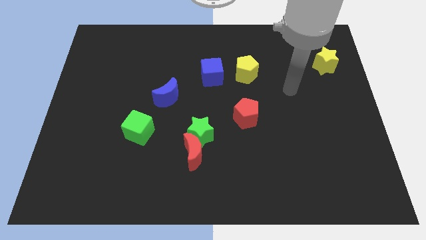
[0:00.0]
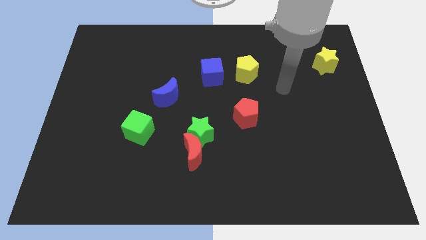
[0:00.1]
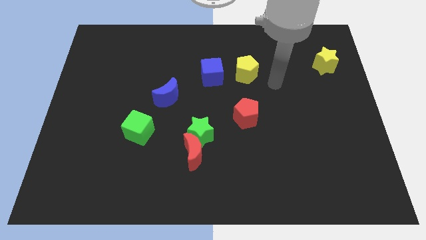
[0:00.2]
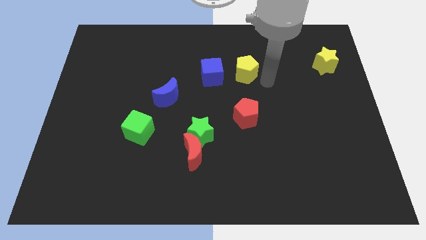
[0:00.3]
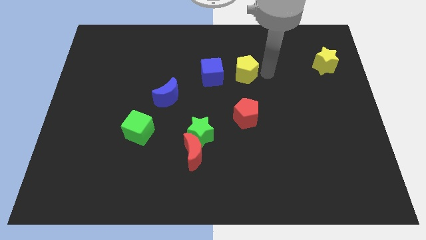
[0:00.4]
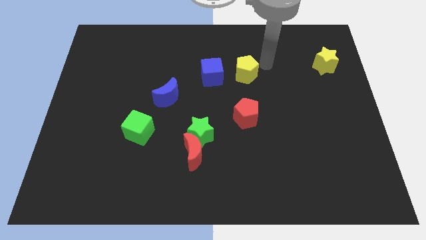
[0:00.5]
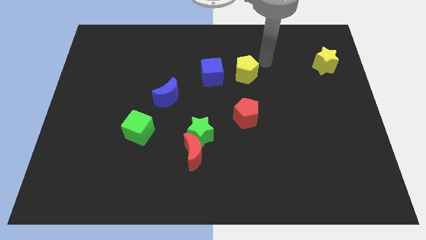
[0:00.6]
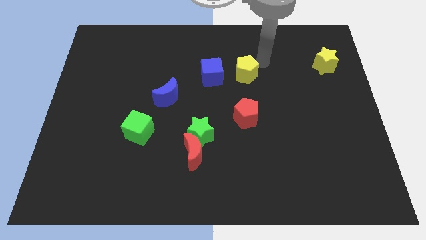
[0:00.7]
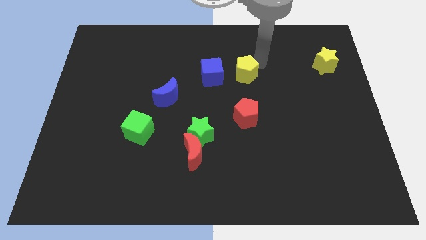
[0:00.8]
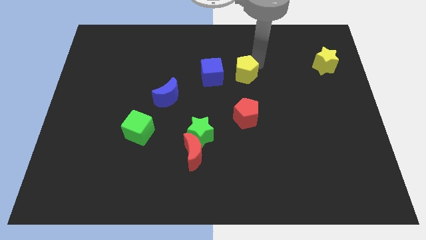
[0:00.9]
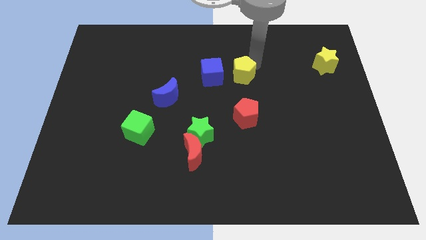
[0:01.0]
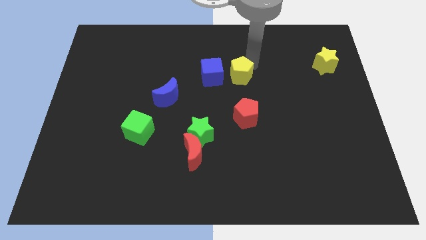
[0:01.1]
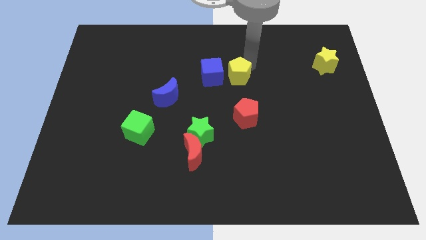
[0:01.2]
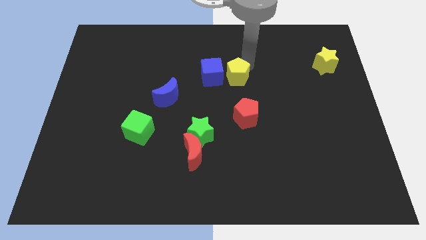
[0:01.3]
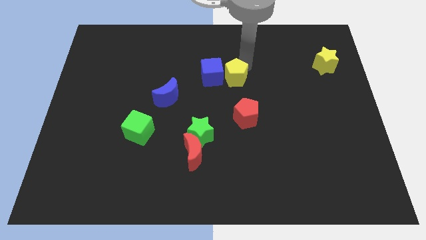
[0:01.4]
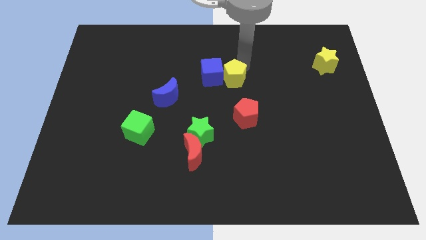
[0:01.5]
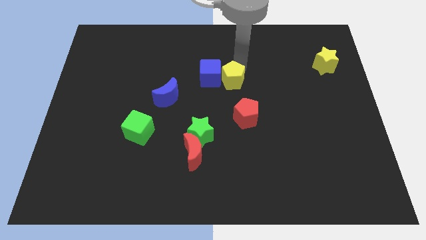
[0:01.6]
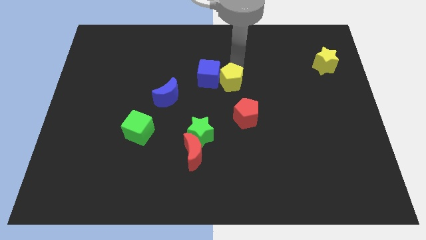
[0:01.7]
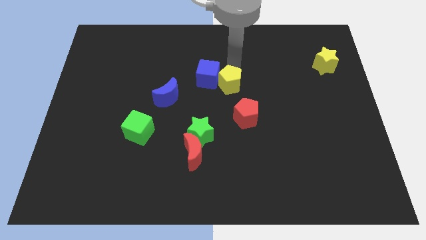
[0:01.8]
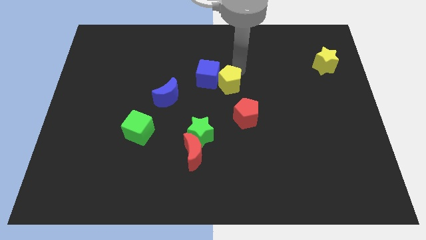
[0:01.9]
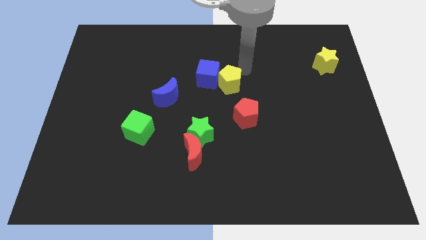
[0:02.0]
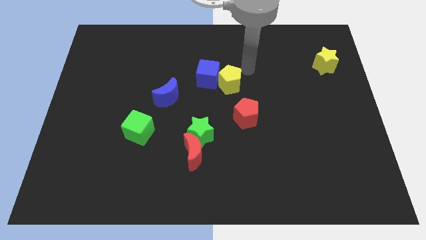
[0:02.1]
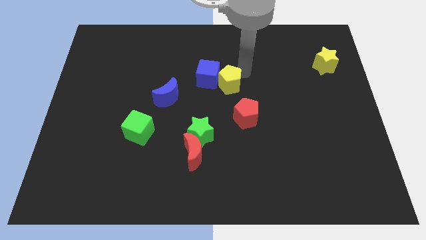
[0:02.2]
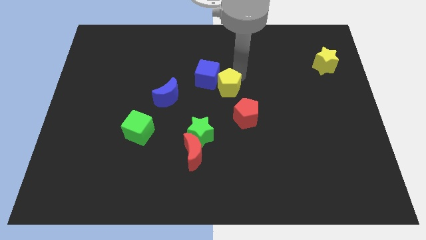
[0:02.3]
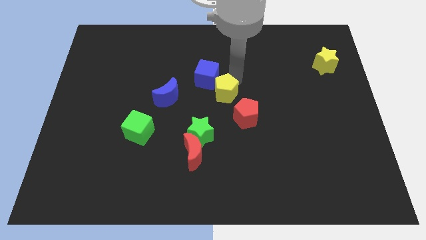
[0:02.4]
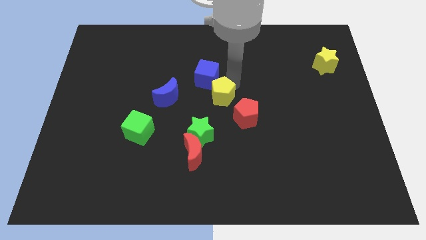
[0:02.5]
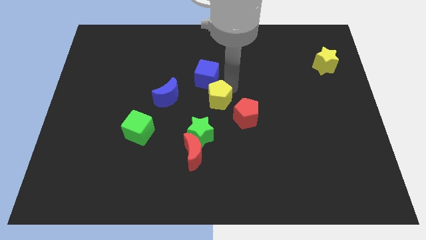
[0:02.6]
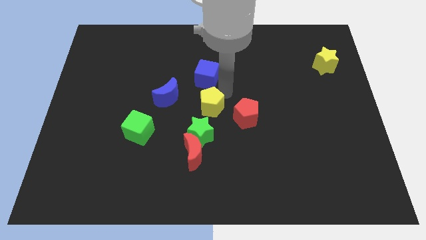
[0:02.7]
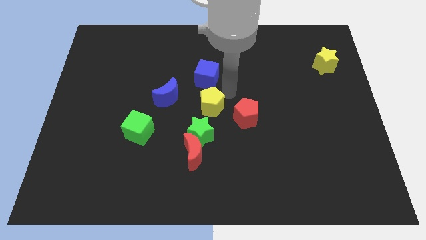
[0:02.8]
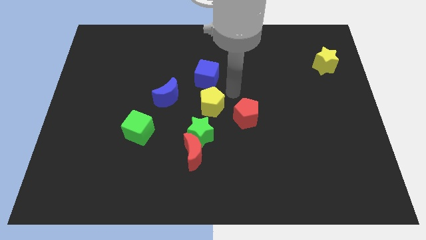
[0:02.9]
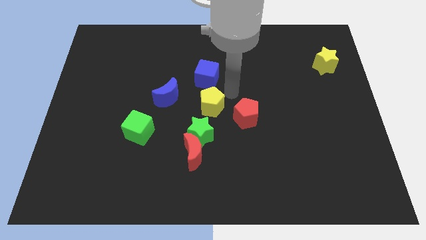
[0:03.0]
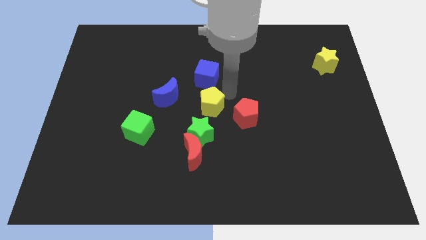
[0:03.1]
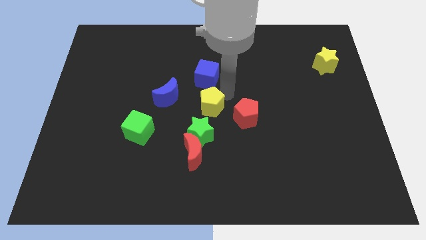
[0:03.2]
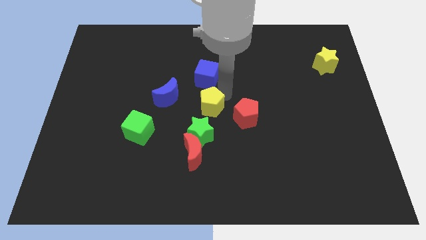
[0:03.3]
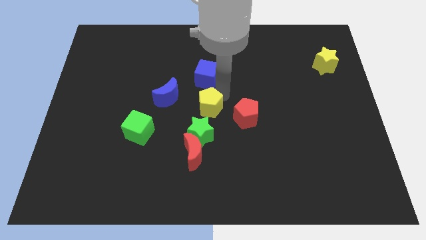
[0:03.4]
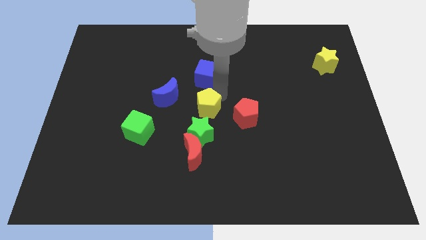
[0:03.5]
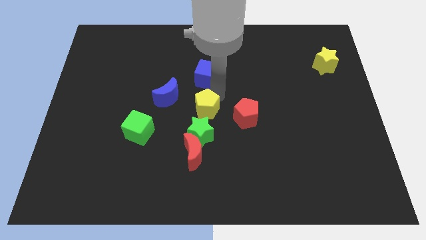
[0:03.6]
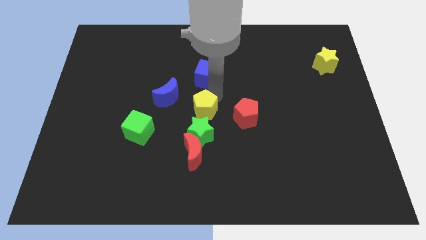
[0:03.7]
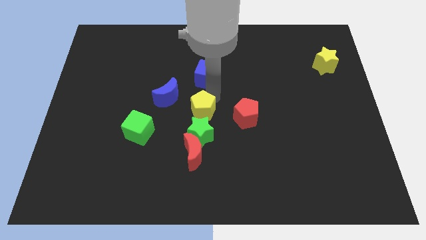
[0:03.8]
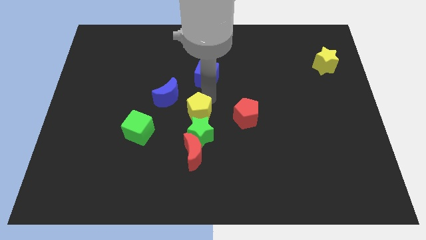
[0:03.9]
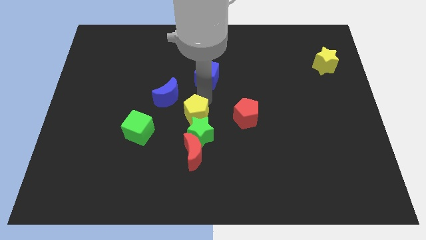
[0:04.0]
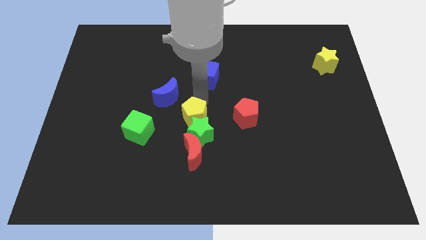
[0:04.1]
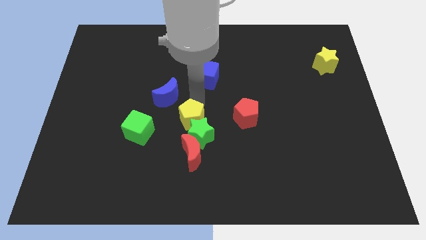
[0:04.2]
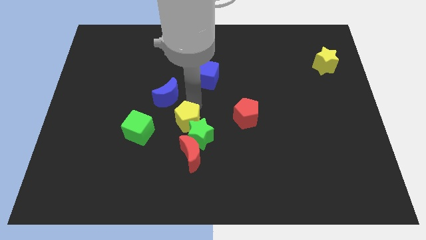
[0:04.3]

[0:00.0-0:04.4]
move the yellow pentagon down and to the left

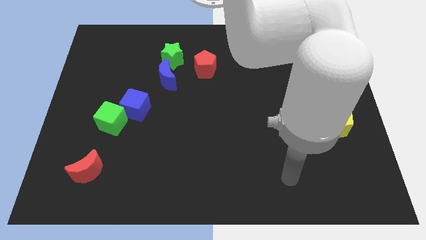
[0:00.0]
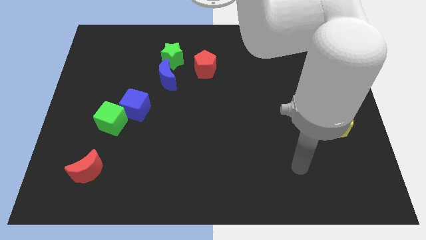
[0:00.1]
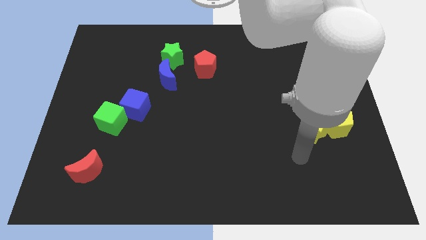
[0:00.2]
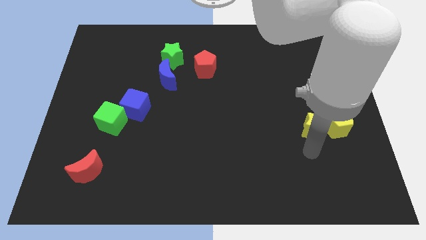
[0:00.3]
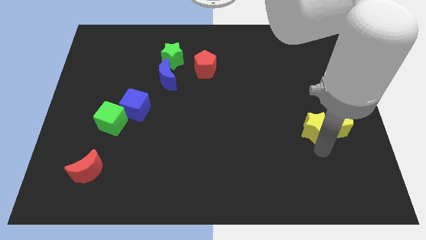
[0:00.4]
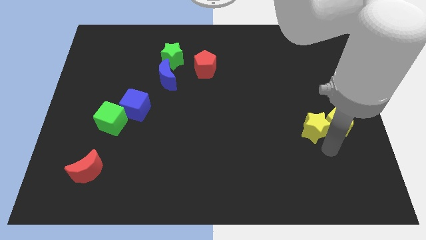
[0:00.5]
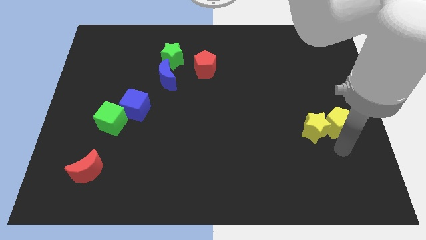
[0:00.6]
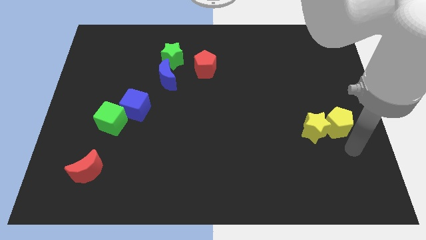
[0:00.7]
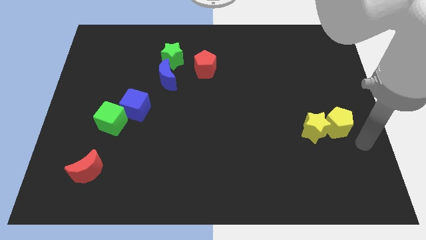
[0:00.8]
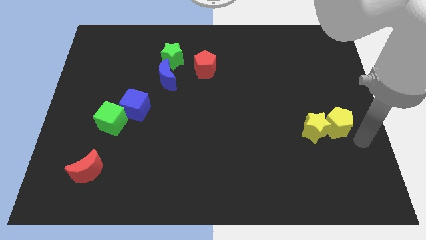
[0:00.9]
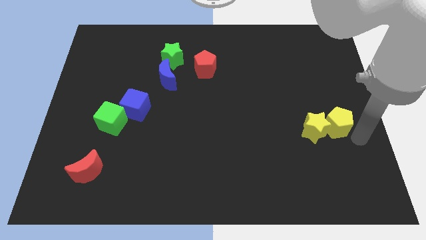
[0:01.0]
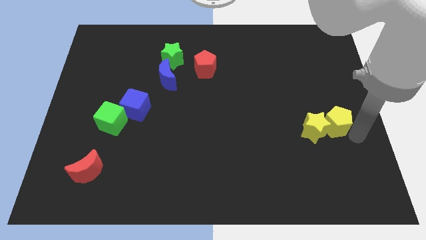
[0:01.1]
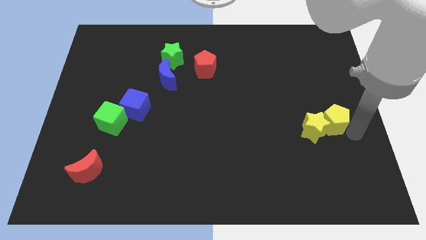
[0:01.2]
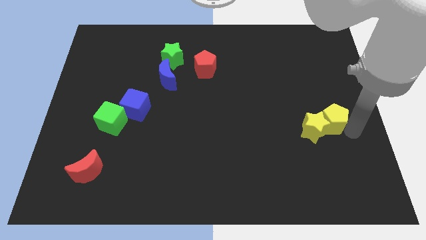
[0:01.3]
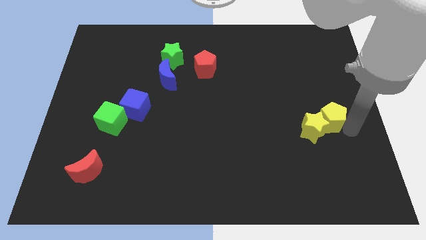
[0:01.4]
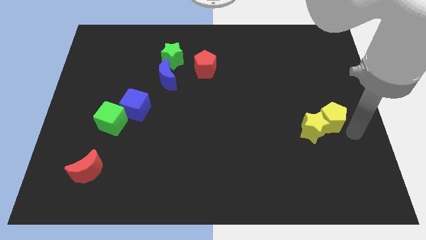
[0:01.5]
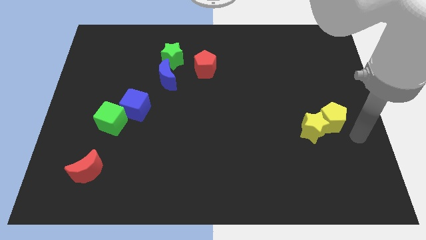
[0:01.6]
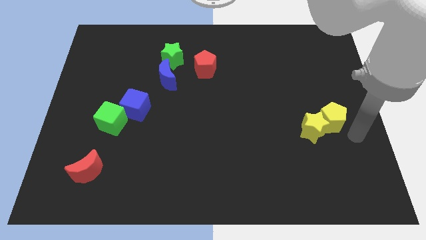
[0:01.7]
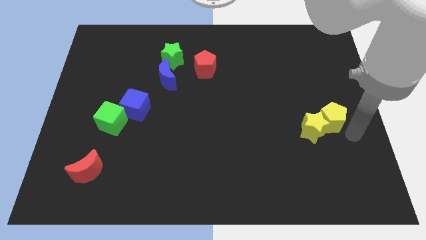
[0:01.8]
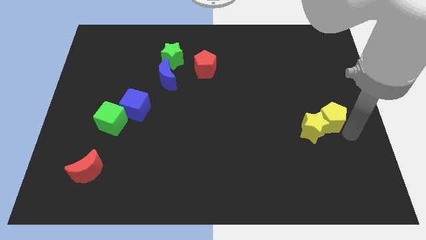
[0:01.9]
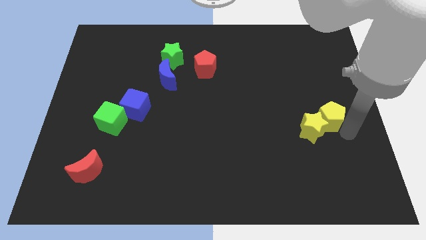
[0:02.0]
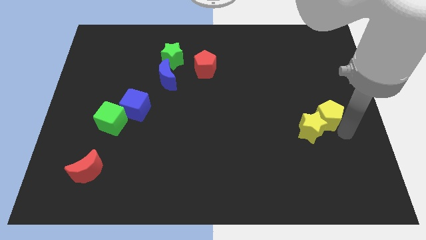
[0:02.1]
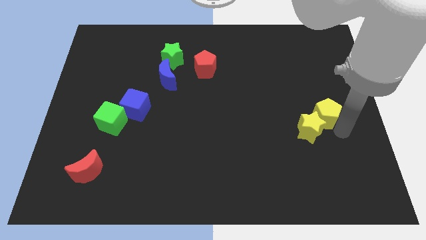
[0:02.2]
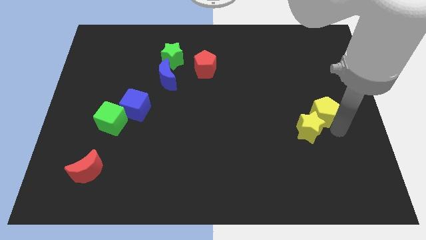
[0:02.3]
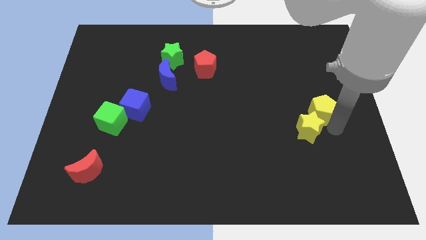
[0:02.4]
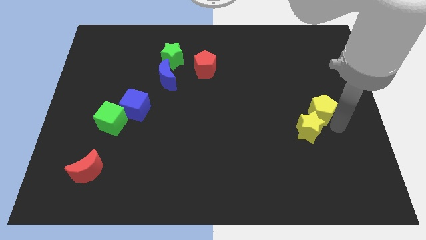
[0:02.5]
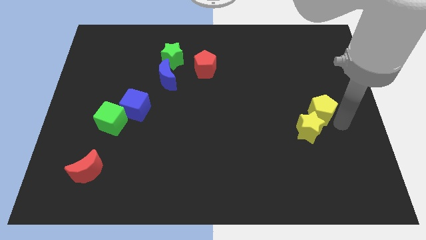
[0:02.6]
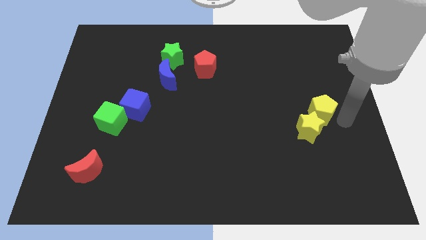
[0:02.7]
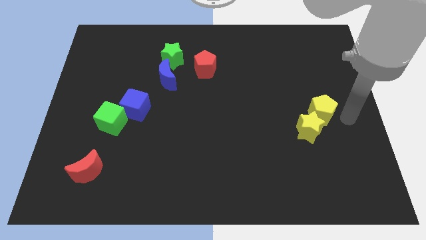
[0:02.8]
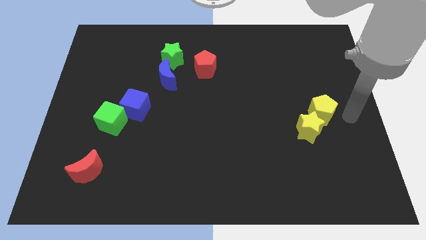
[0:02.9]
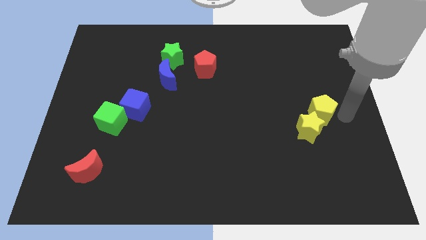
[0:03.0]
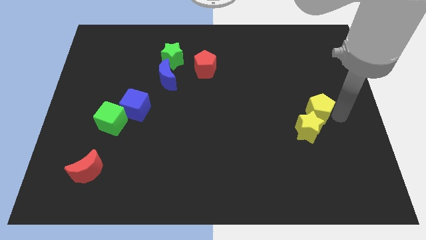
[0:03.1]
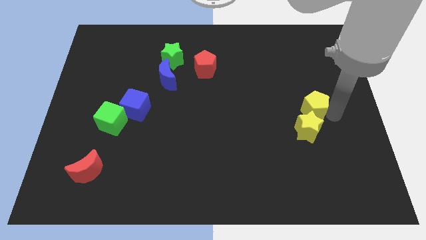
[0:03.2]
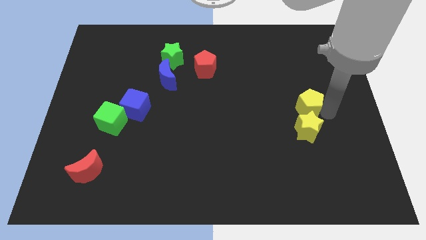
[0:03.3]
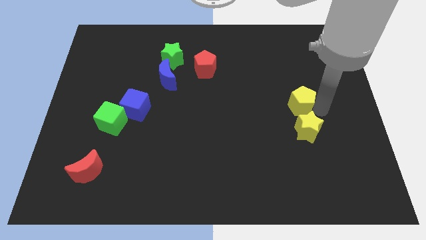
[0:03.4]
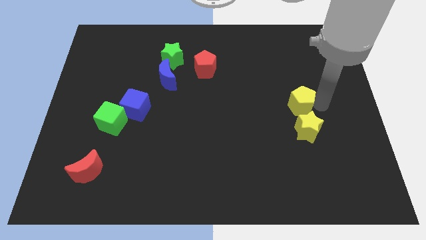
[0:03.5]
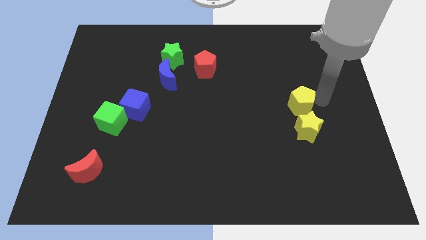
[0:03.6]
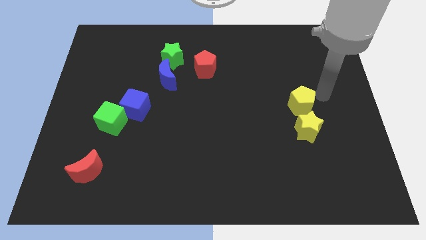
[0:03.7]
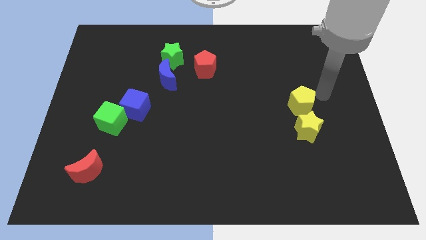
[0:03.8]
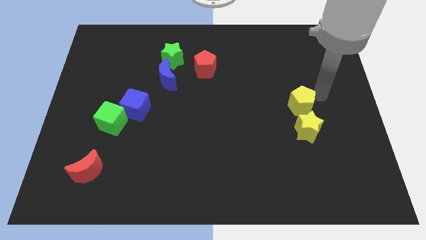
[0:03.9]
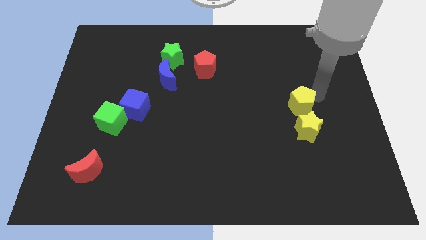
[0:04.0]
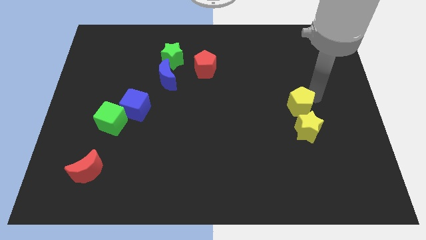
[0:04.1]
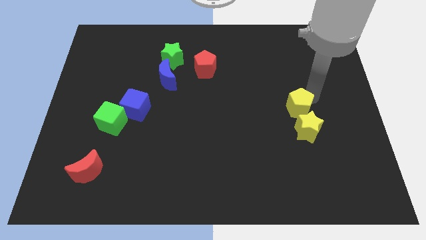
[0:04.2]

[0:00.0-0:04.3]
slide the yellow pentagon left a little bit
